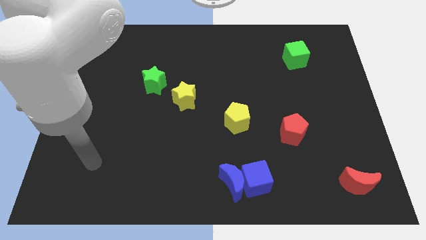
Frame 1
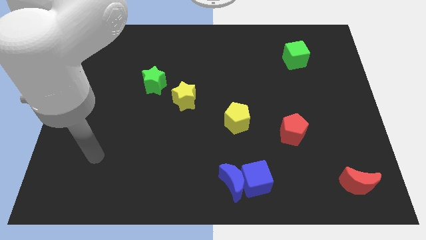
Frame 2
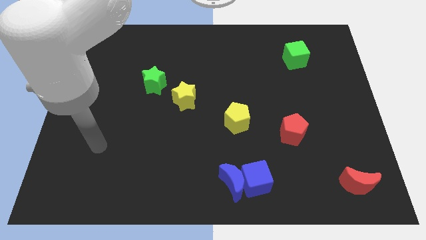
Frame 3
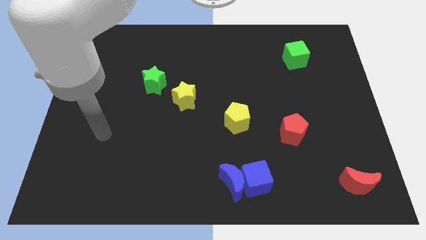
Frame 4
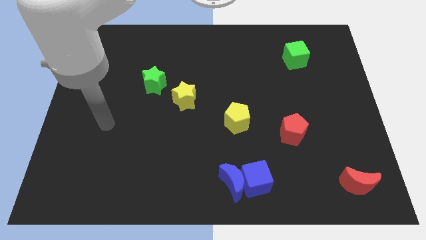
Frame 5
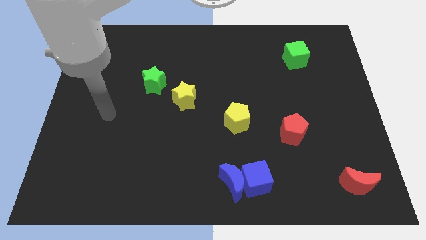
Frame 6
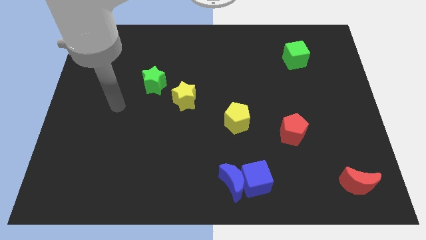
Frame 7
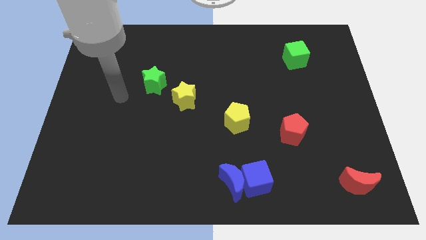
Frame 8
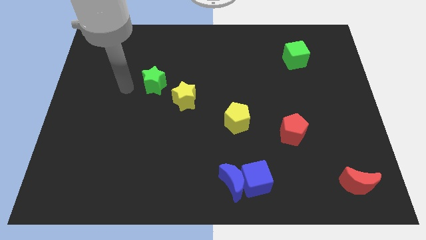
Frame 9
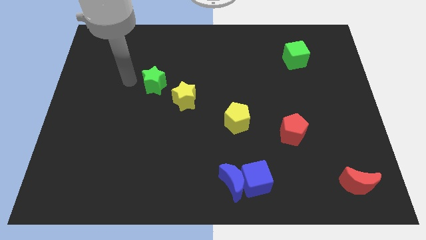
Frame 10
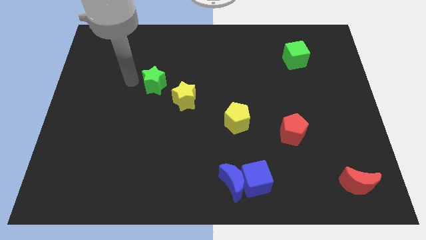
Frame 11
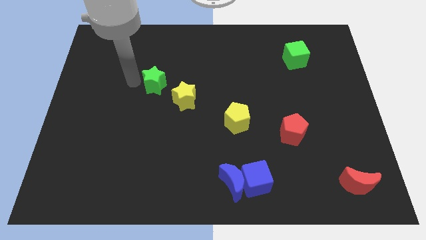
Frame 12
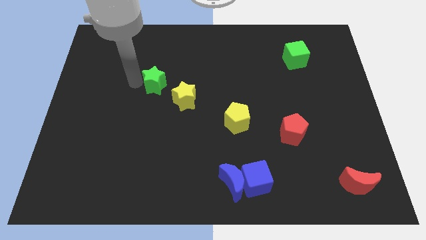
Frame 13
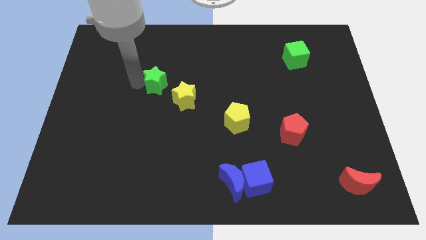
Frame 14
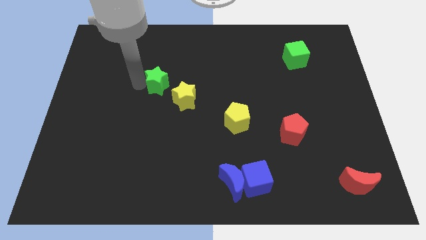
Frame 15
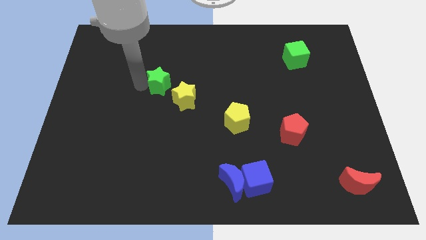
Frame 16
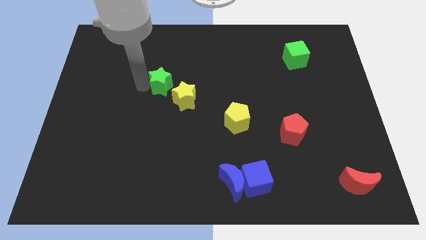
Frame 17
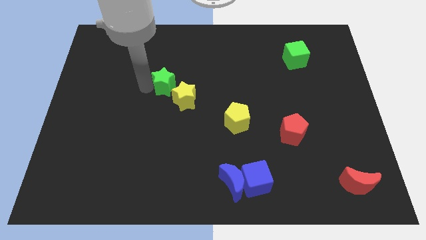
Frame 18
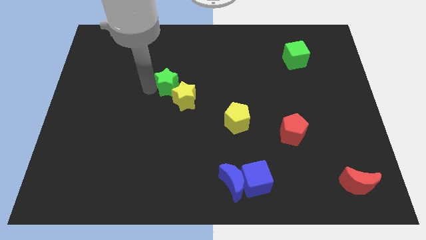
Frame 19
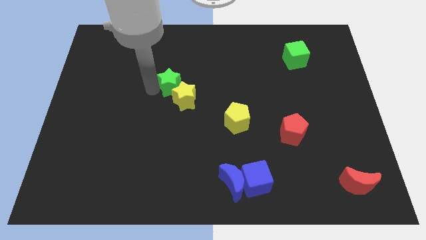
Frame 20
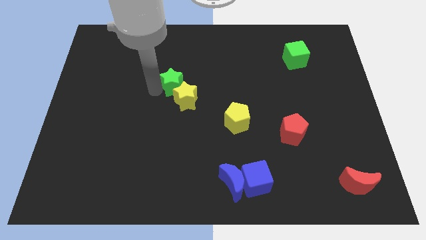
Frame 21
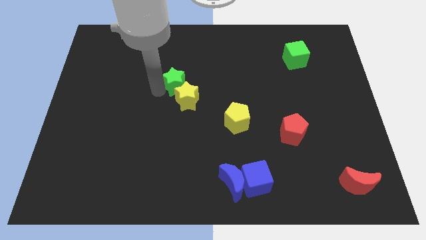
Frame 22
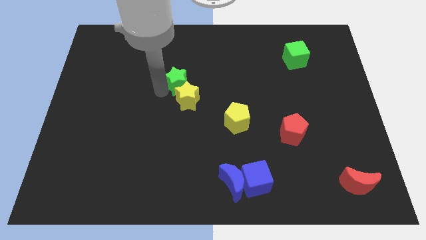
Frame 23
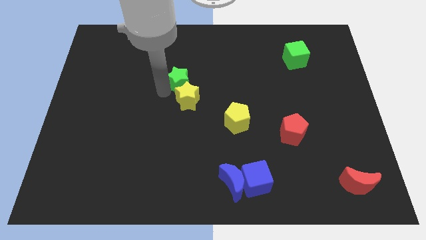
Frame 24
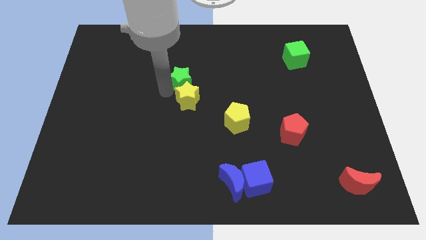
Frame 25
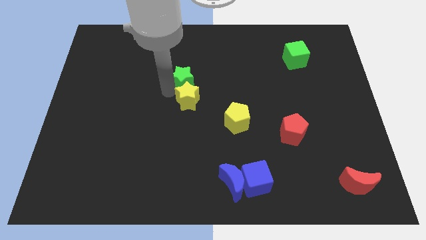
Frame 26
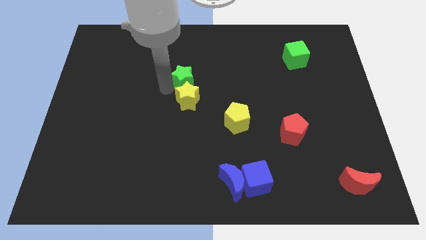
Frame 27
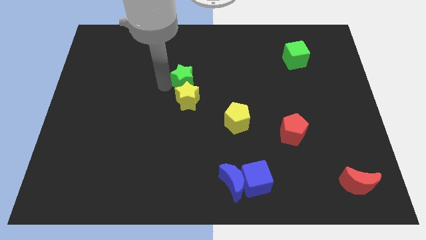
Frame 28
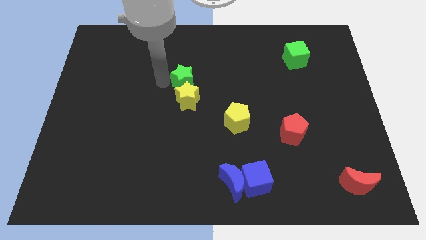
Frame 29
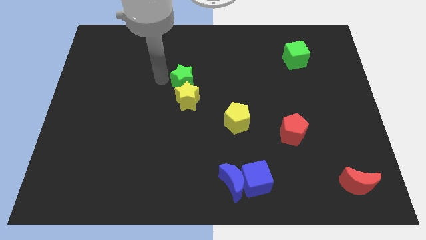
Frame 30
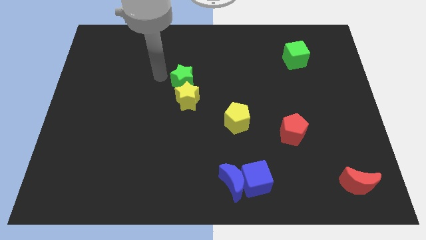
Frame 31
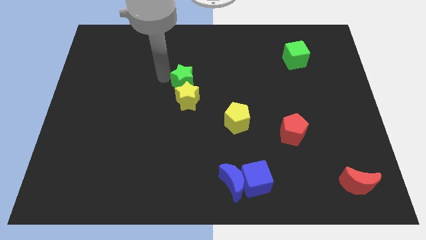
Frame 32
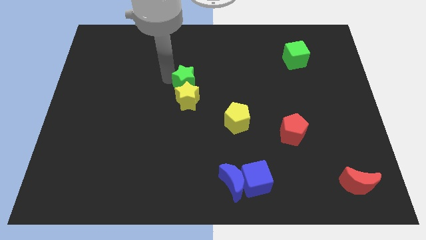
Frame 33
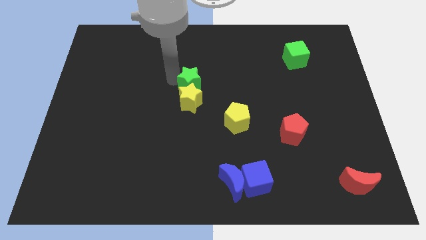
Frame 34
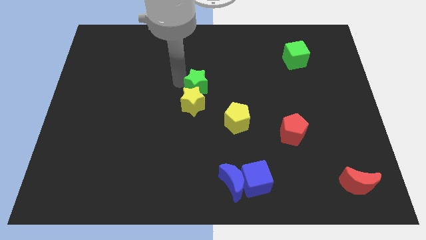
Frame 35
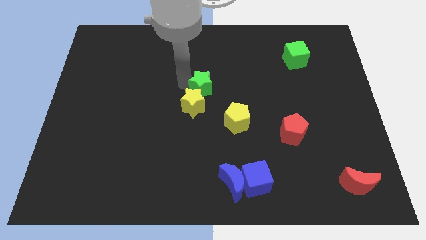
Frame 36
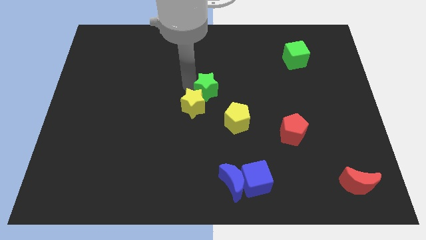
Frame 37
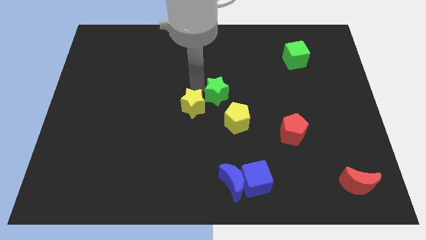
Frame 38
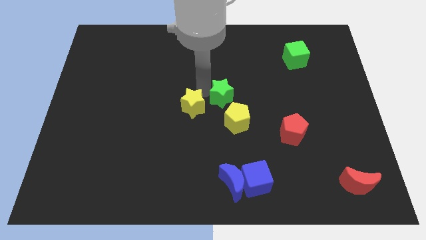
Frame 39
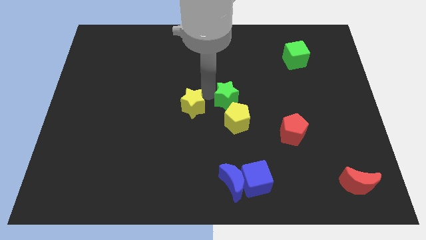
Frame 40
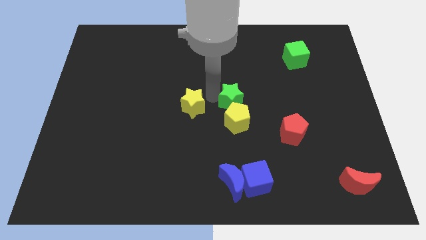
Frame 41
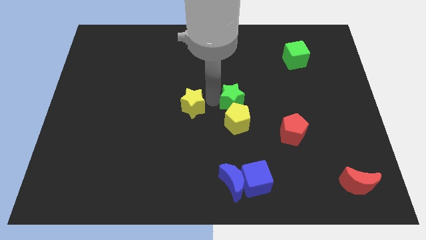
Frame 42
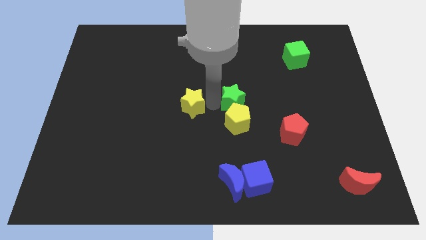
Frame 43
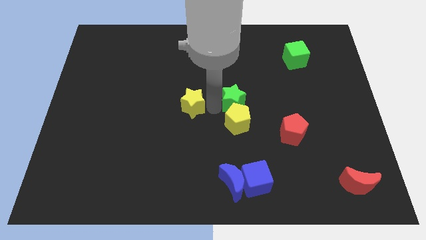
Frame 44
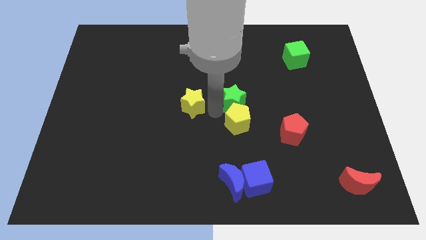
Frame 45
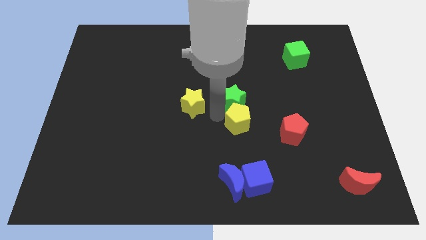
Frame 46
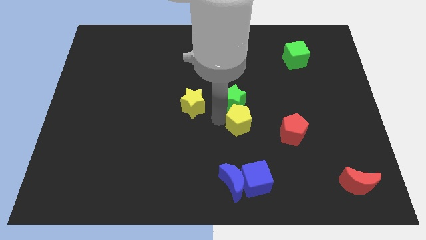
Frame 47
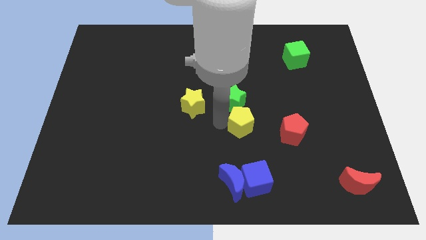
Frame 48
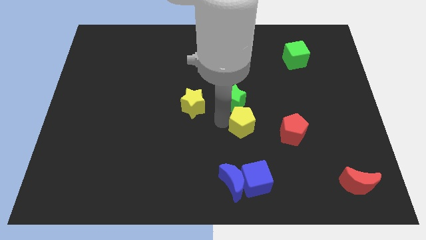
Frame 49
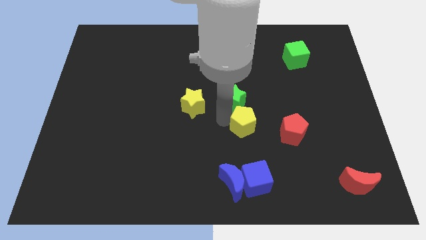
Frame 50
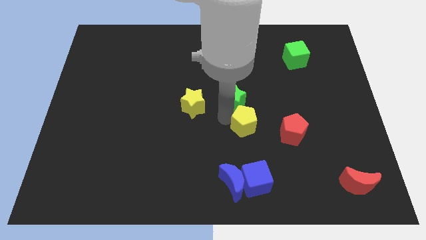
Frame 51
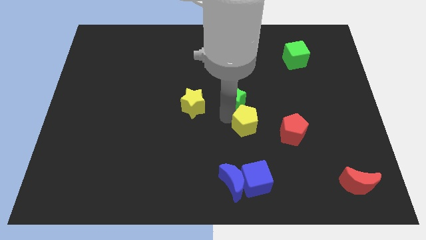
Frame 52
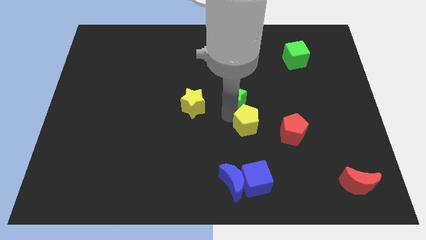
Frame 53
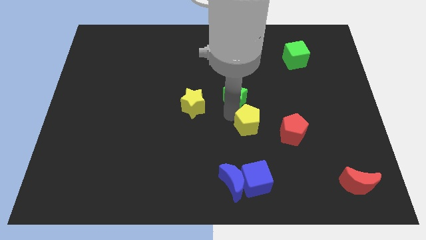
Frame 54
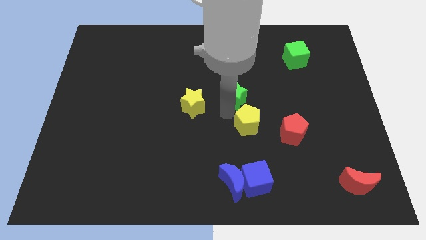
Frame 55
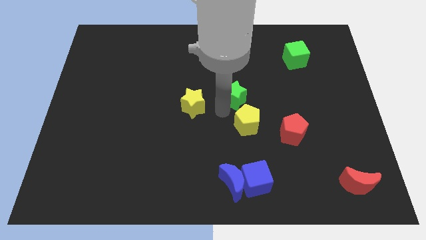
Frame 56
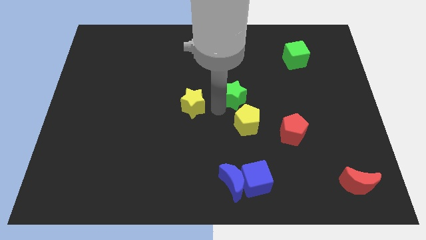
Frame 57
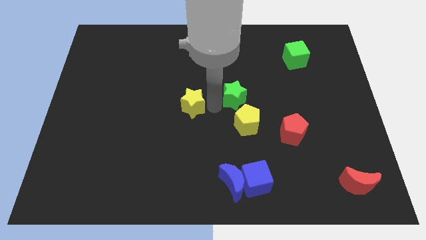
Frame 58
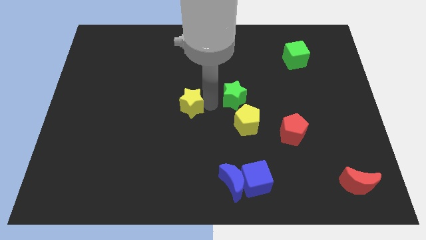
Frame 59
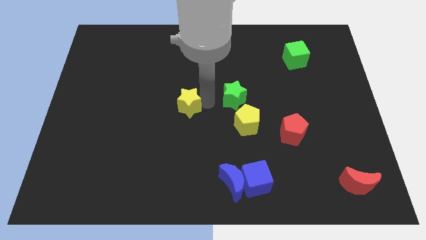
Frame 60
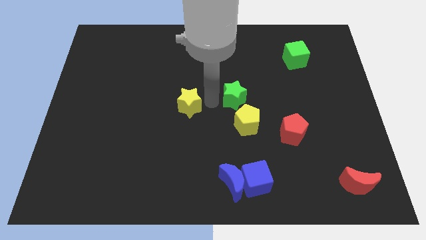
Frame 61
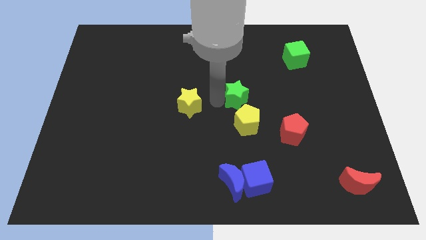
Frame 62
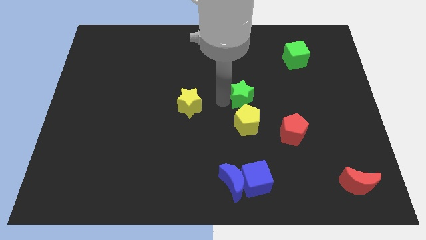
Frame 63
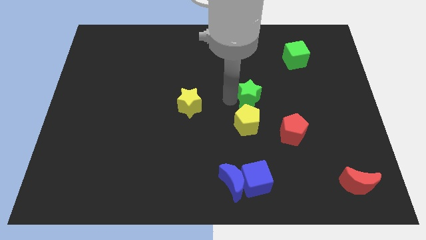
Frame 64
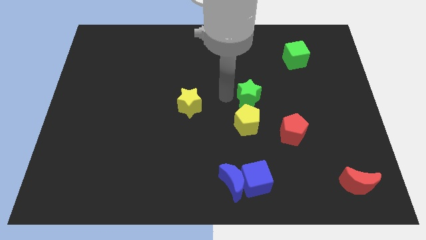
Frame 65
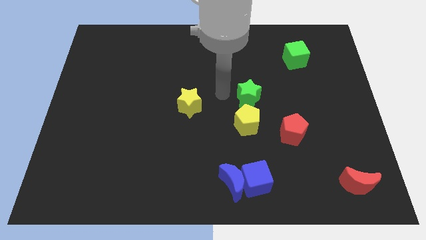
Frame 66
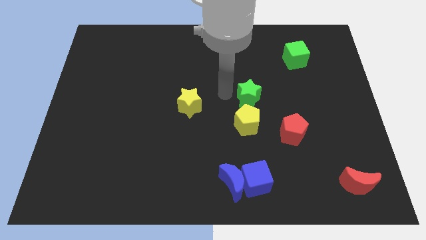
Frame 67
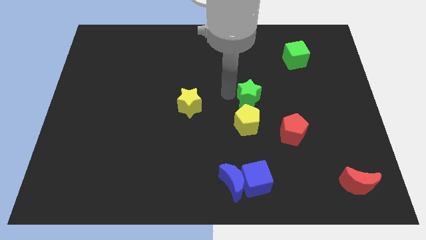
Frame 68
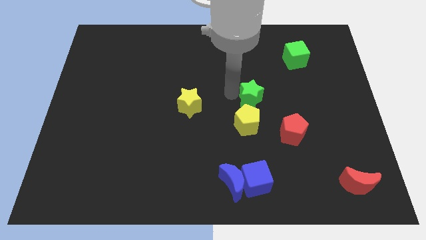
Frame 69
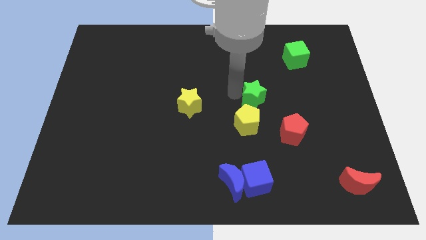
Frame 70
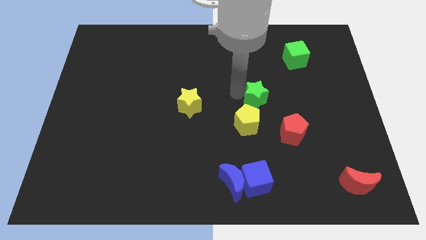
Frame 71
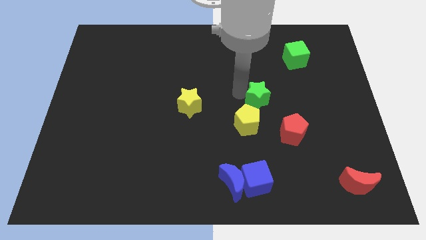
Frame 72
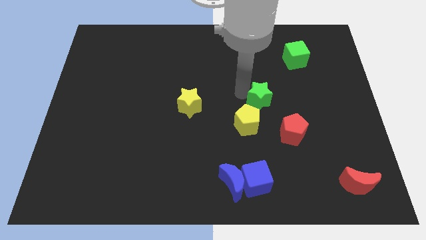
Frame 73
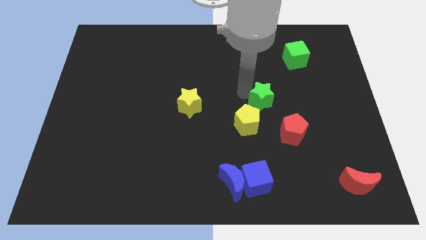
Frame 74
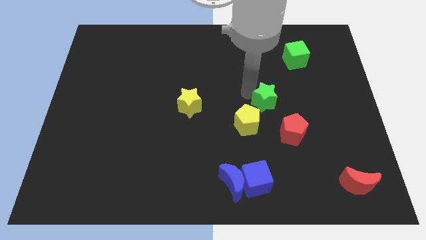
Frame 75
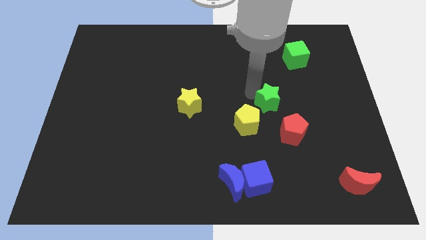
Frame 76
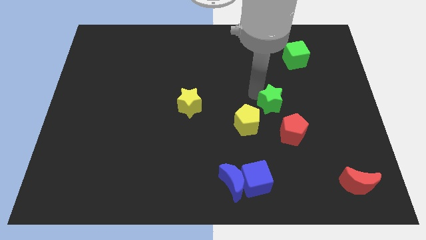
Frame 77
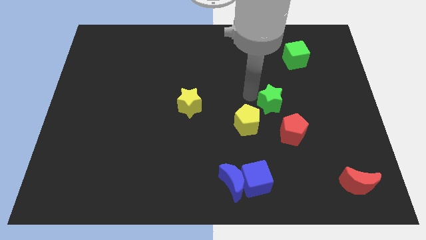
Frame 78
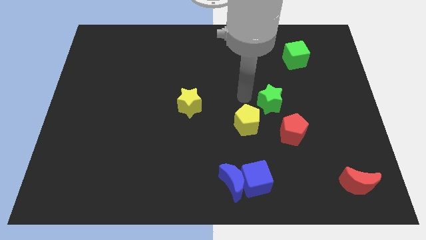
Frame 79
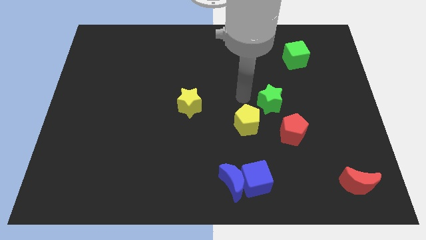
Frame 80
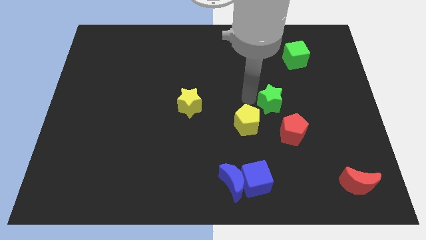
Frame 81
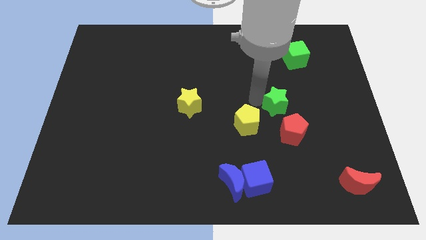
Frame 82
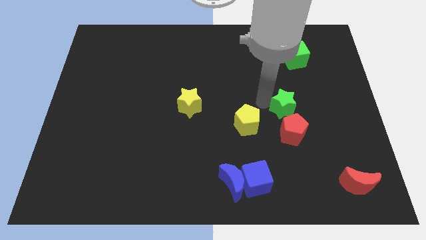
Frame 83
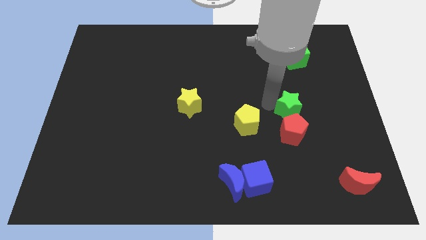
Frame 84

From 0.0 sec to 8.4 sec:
put the green star to the top right of the red pentagon
